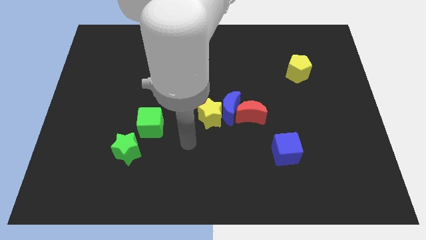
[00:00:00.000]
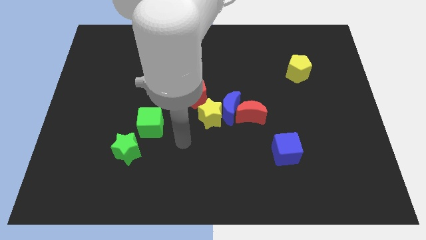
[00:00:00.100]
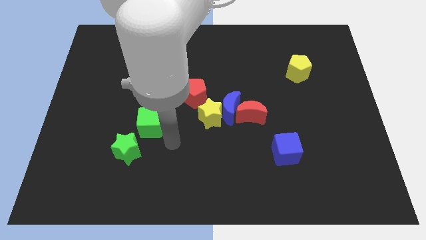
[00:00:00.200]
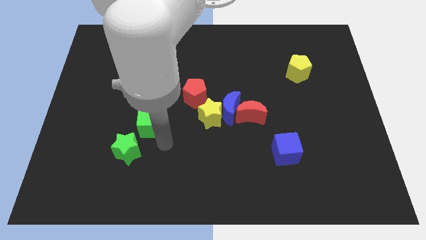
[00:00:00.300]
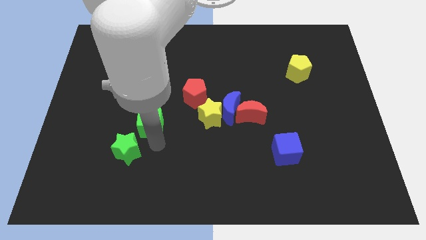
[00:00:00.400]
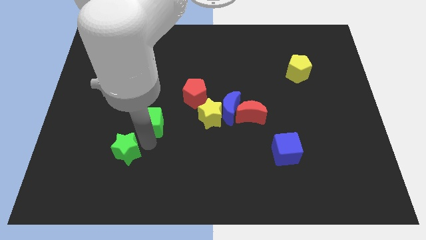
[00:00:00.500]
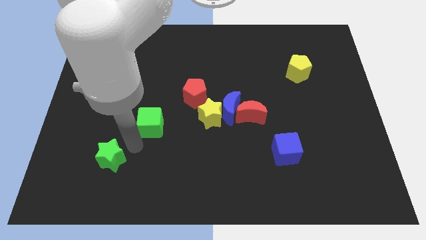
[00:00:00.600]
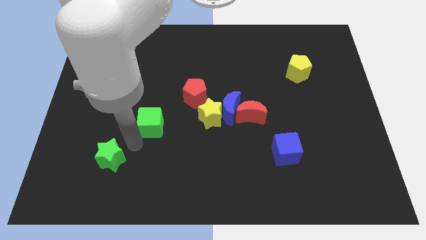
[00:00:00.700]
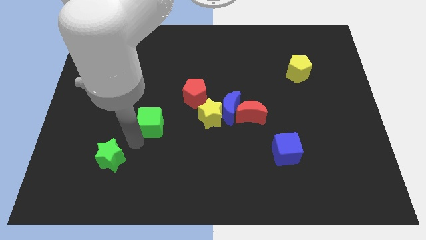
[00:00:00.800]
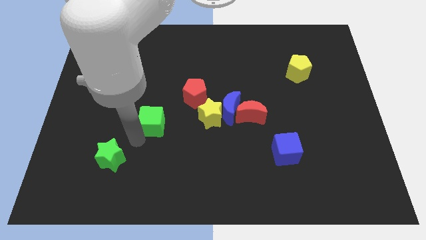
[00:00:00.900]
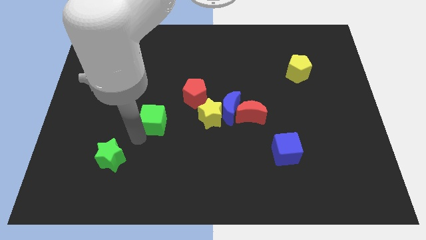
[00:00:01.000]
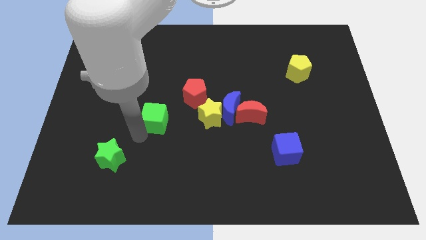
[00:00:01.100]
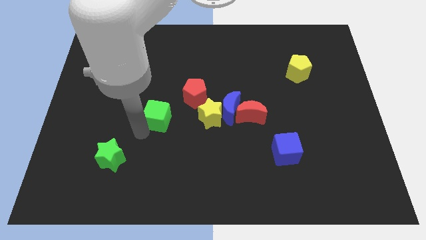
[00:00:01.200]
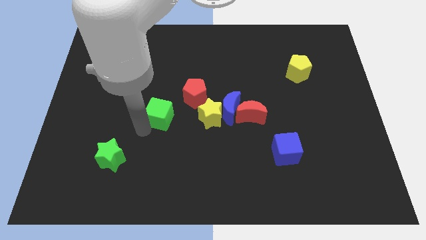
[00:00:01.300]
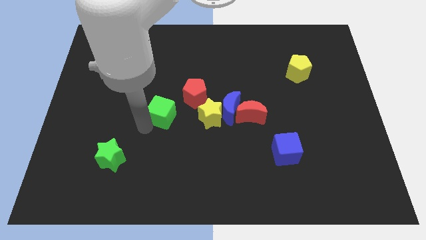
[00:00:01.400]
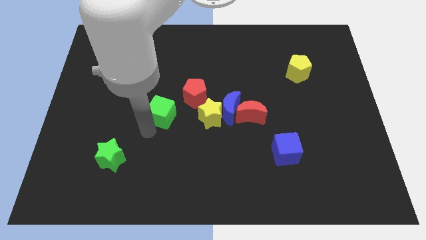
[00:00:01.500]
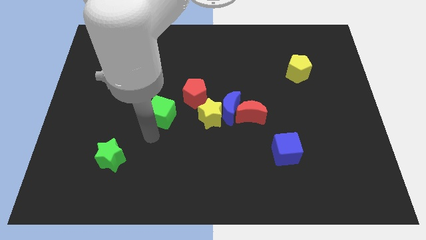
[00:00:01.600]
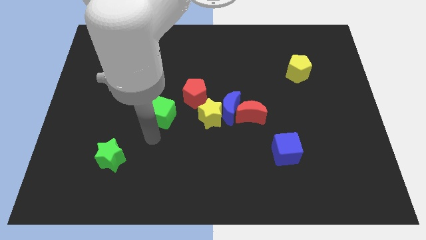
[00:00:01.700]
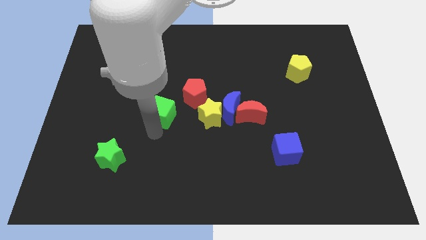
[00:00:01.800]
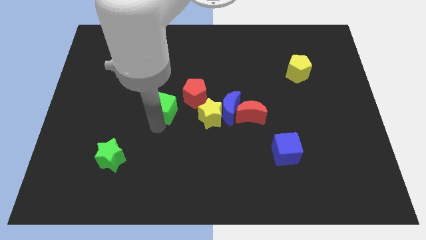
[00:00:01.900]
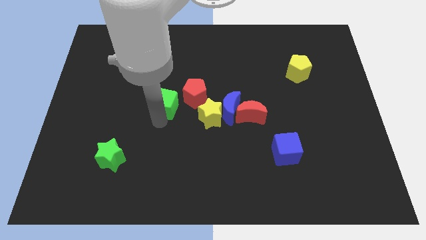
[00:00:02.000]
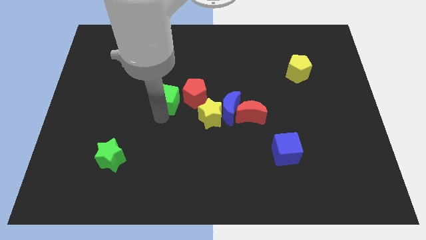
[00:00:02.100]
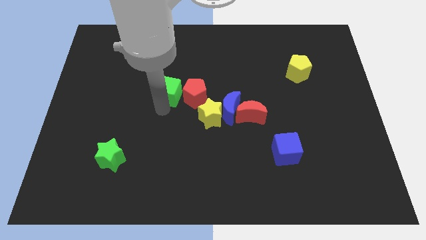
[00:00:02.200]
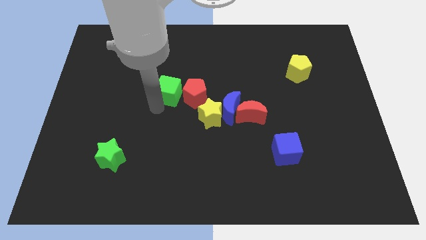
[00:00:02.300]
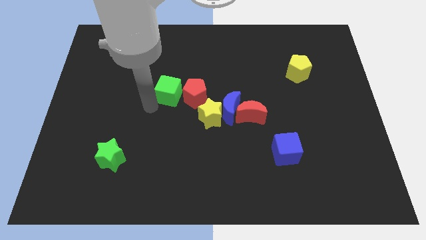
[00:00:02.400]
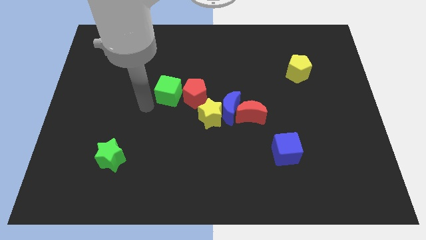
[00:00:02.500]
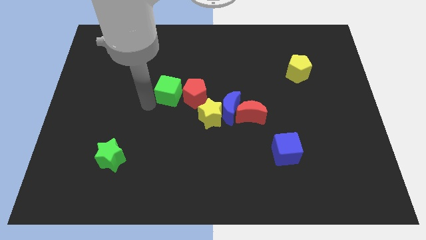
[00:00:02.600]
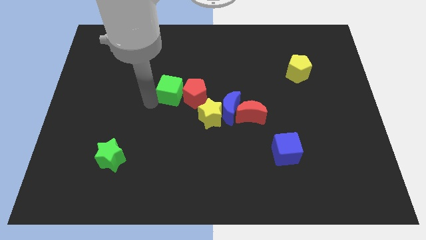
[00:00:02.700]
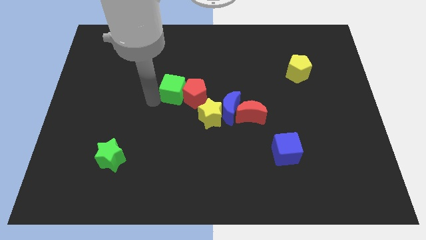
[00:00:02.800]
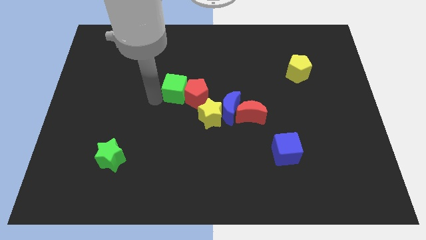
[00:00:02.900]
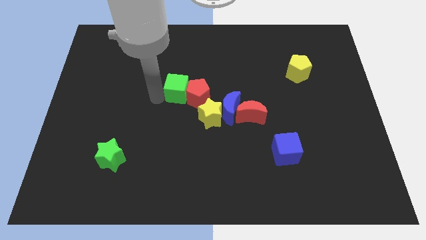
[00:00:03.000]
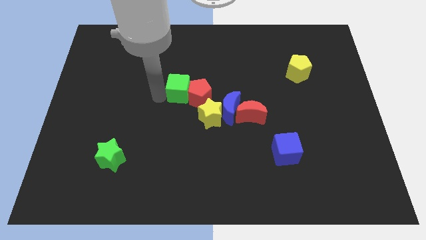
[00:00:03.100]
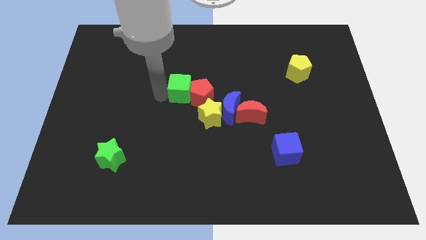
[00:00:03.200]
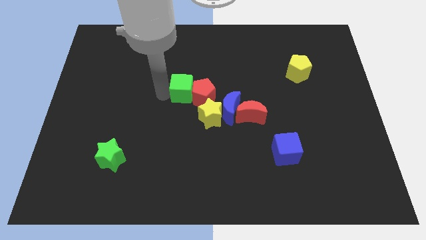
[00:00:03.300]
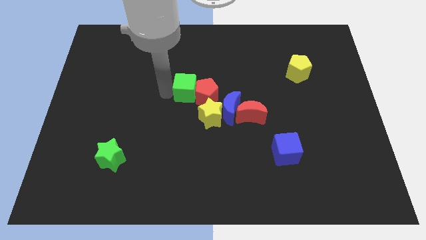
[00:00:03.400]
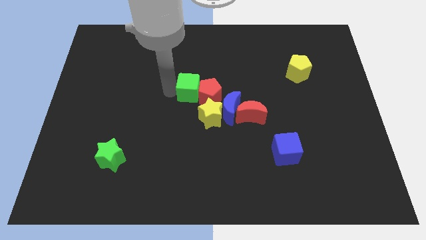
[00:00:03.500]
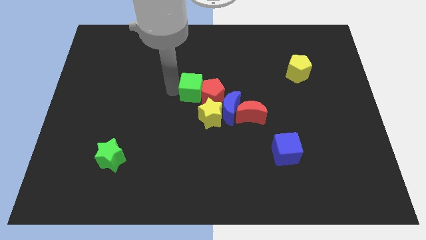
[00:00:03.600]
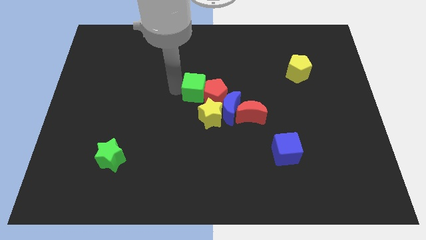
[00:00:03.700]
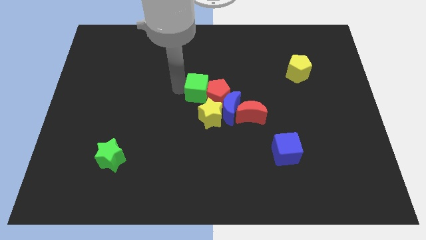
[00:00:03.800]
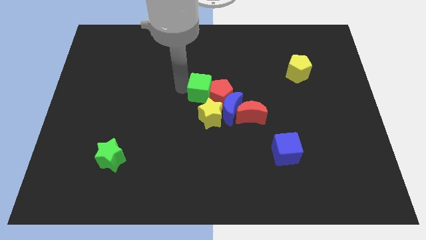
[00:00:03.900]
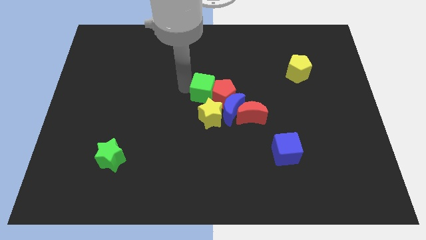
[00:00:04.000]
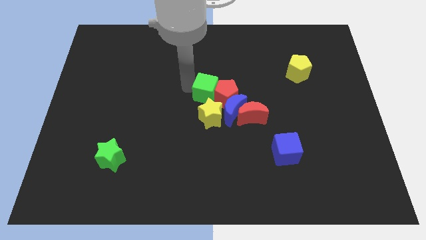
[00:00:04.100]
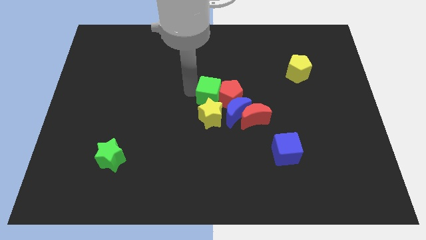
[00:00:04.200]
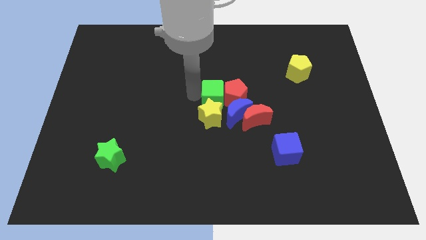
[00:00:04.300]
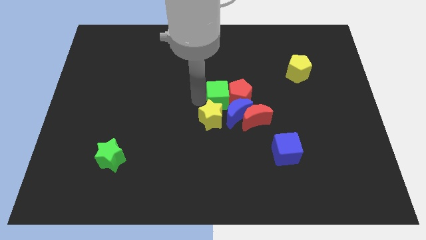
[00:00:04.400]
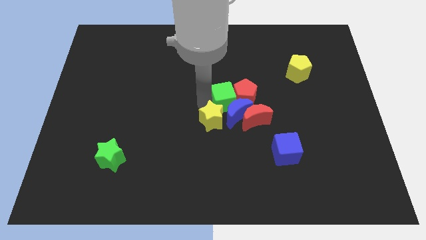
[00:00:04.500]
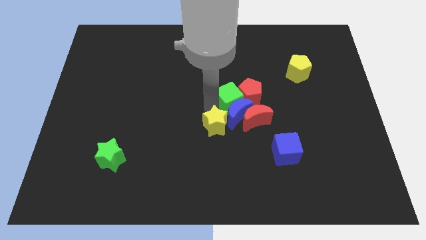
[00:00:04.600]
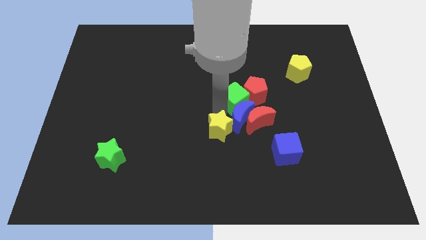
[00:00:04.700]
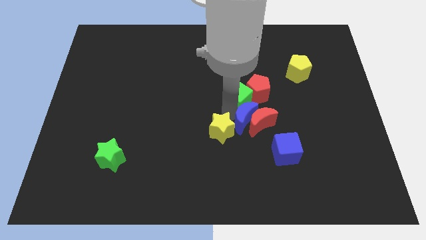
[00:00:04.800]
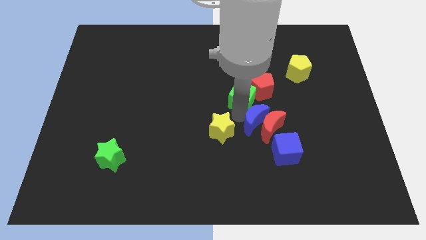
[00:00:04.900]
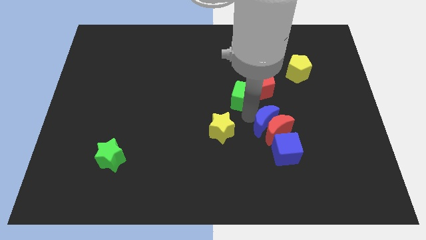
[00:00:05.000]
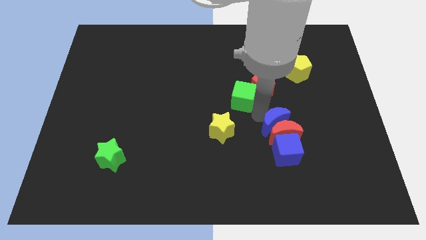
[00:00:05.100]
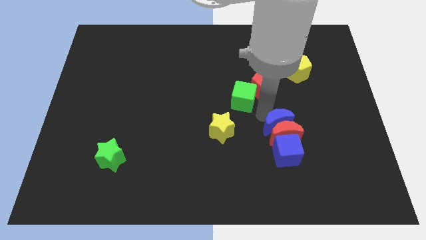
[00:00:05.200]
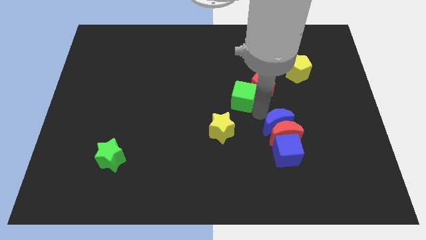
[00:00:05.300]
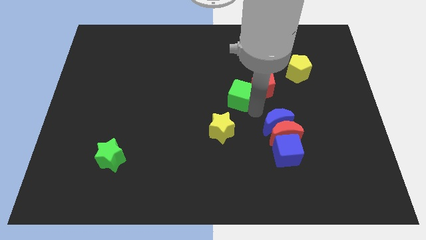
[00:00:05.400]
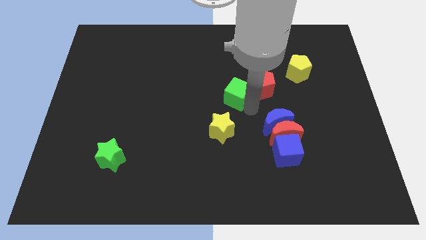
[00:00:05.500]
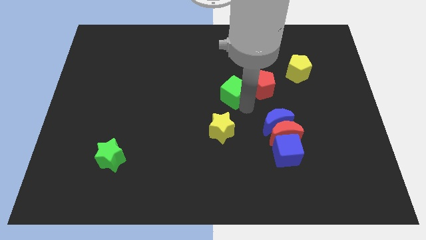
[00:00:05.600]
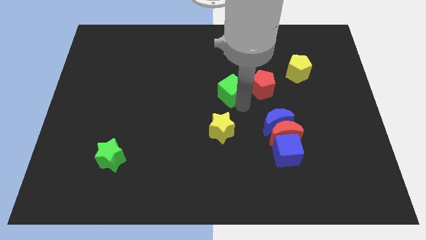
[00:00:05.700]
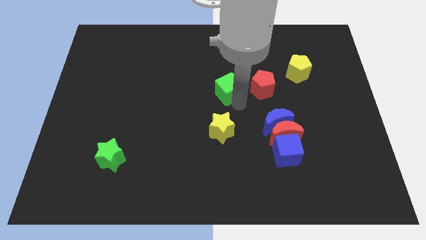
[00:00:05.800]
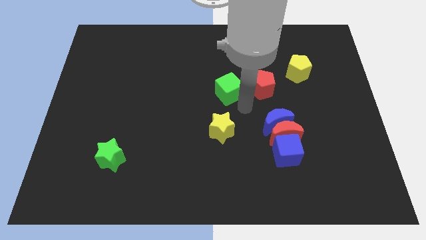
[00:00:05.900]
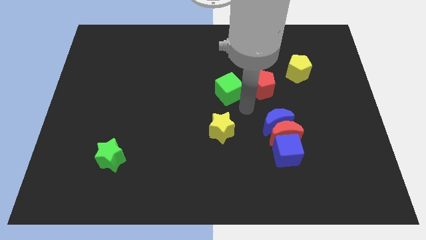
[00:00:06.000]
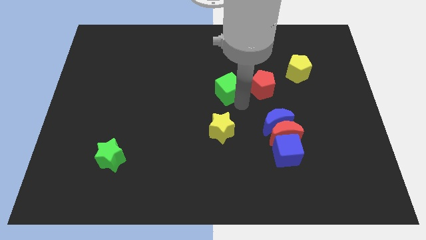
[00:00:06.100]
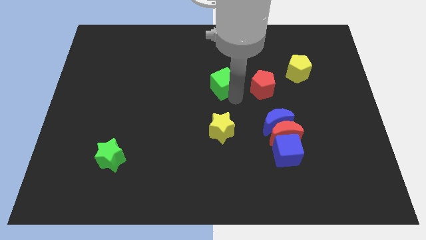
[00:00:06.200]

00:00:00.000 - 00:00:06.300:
push the green cube up and to the right

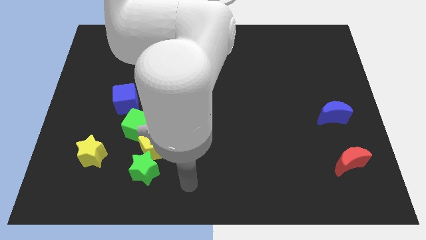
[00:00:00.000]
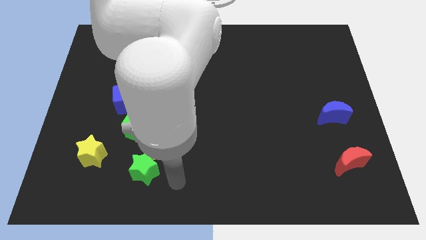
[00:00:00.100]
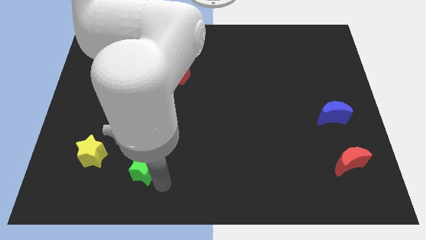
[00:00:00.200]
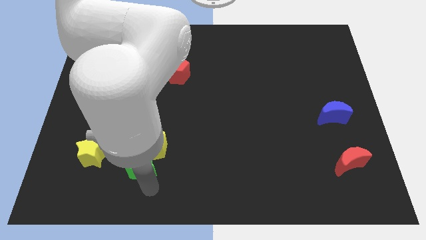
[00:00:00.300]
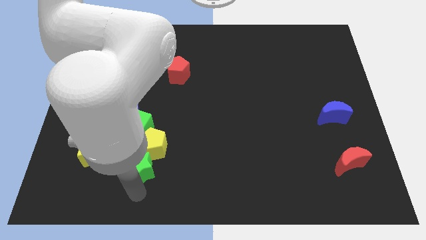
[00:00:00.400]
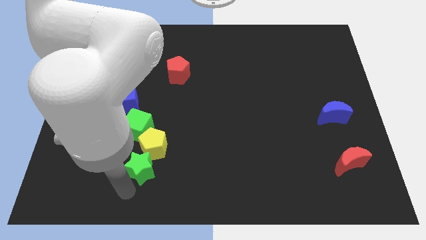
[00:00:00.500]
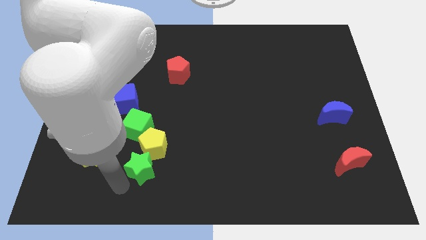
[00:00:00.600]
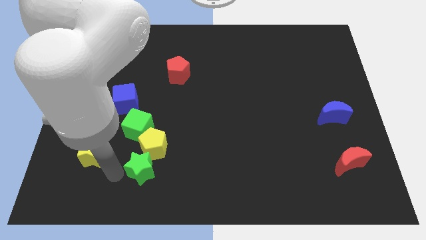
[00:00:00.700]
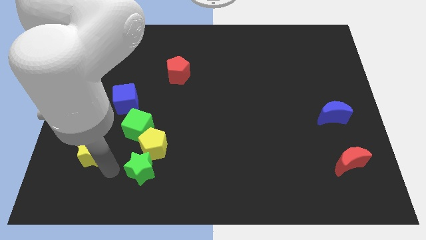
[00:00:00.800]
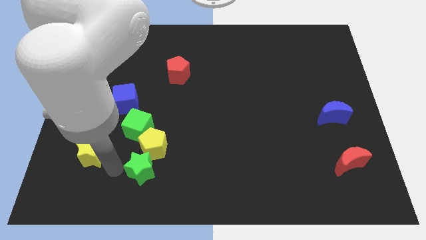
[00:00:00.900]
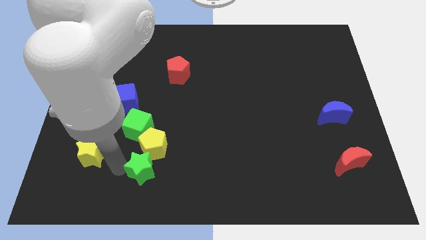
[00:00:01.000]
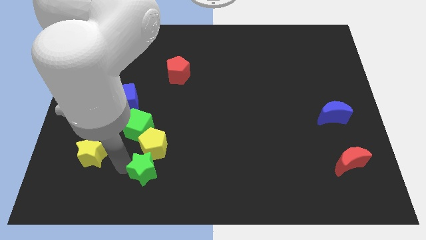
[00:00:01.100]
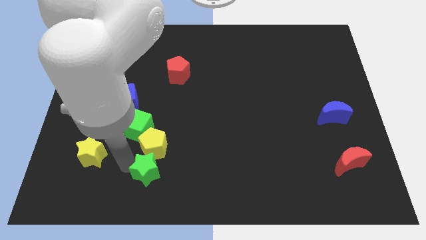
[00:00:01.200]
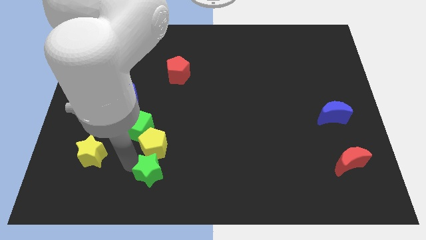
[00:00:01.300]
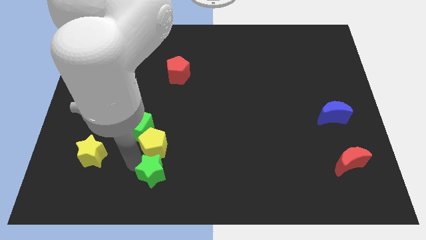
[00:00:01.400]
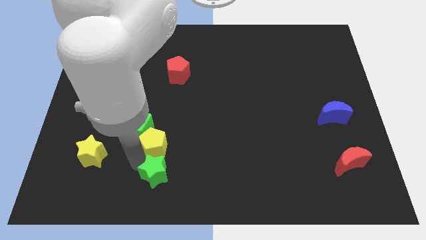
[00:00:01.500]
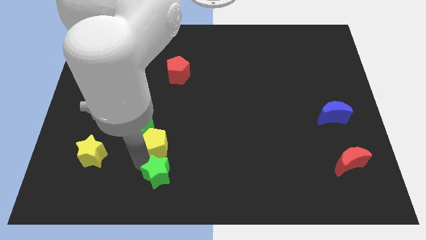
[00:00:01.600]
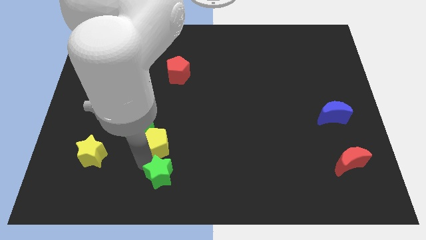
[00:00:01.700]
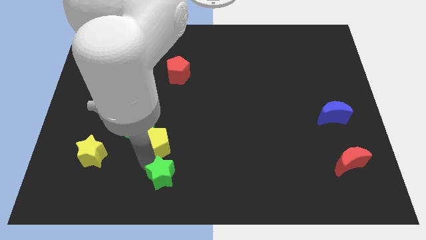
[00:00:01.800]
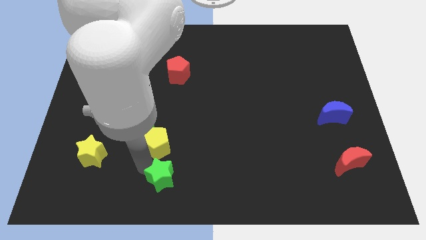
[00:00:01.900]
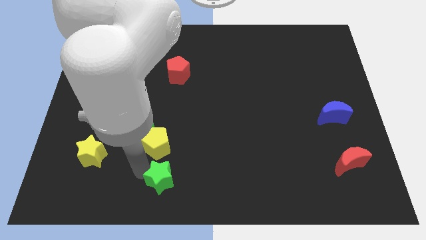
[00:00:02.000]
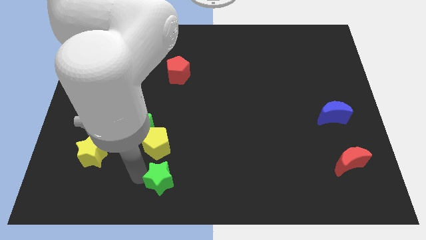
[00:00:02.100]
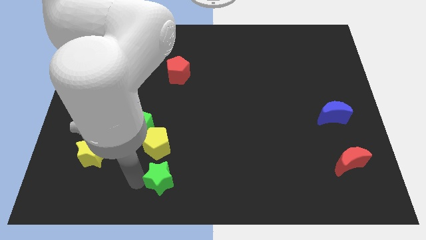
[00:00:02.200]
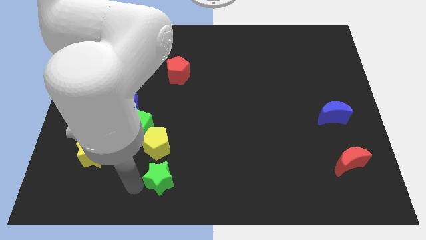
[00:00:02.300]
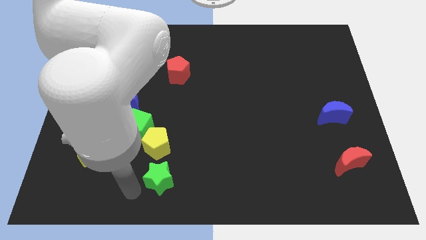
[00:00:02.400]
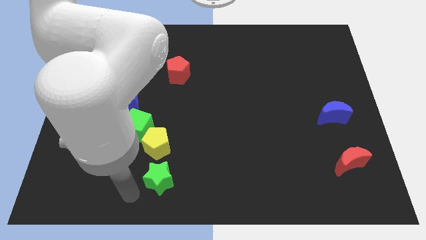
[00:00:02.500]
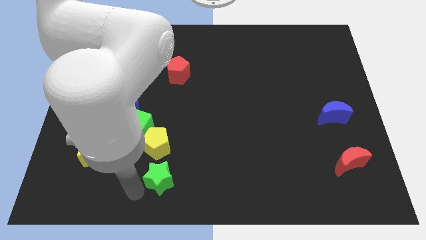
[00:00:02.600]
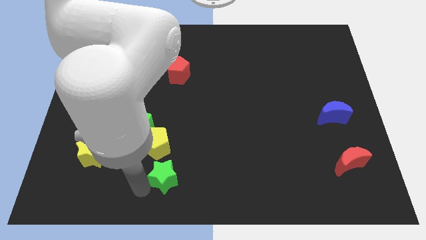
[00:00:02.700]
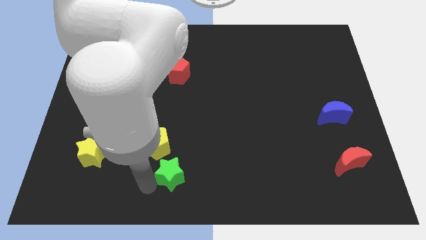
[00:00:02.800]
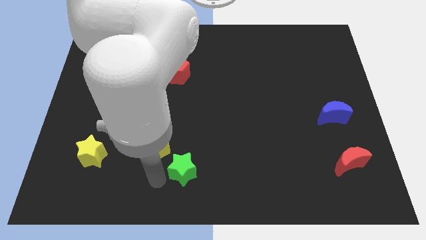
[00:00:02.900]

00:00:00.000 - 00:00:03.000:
move the green star a little bit right
